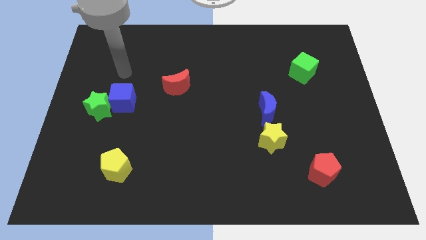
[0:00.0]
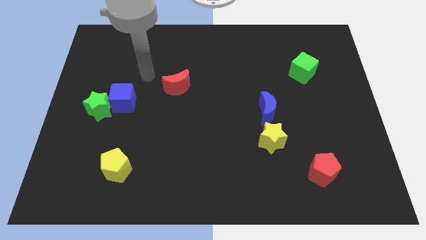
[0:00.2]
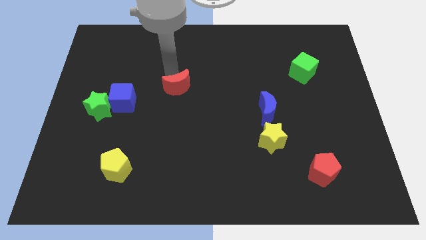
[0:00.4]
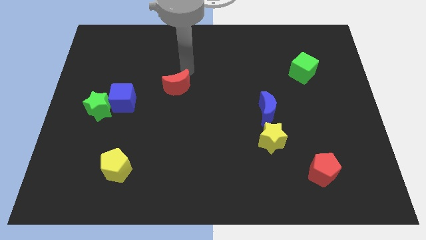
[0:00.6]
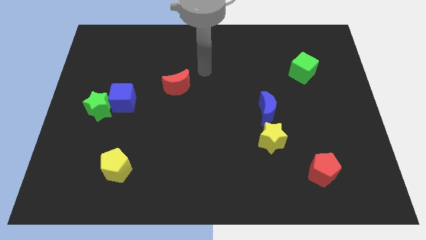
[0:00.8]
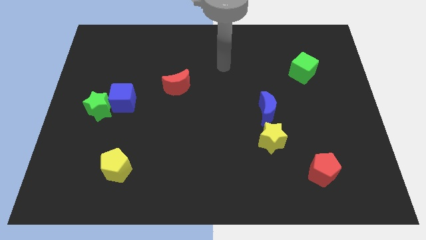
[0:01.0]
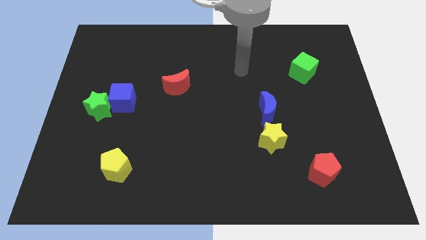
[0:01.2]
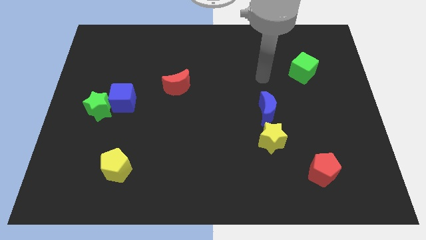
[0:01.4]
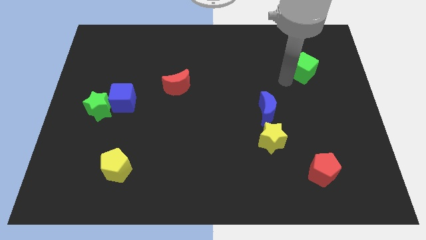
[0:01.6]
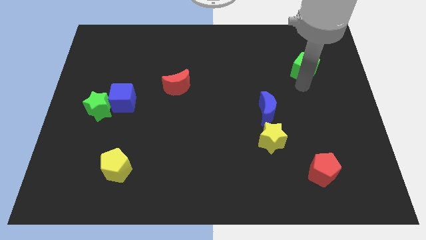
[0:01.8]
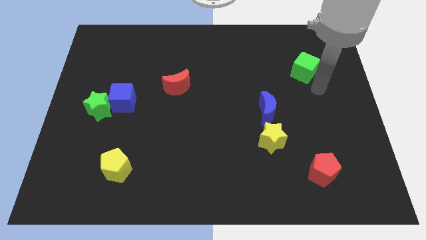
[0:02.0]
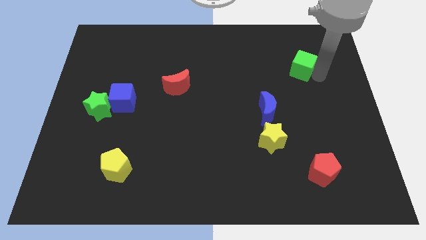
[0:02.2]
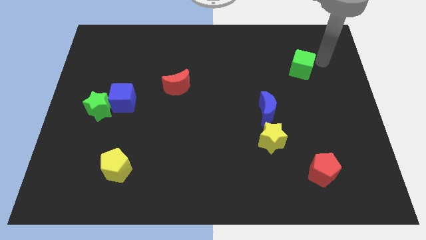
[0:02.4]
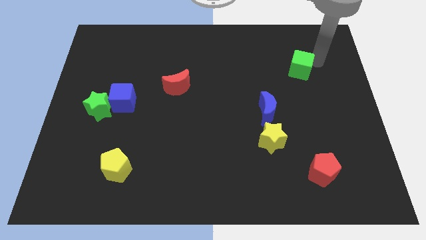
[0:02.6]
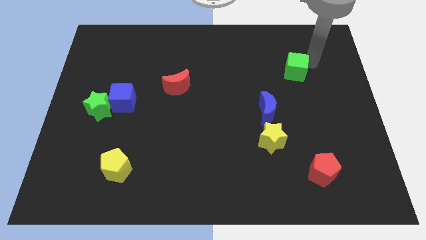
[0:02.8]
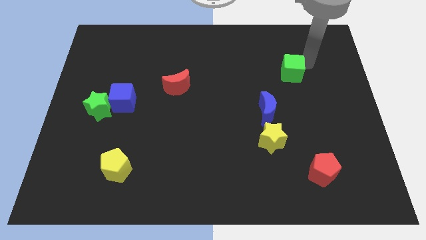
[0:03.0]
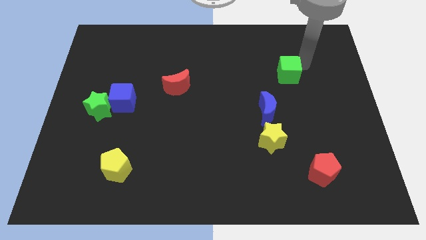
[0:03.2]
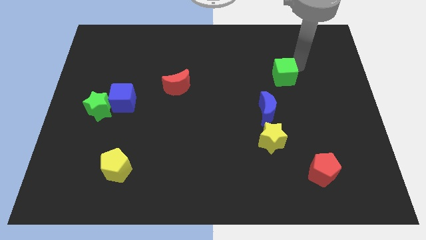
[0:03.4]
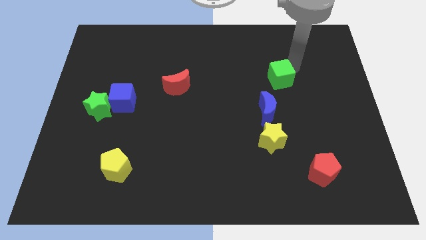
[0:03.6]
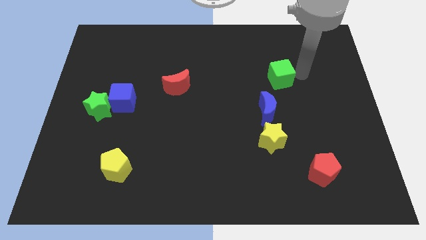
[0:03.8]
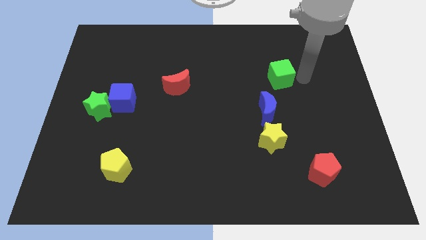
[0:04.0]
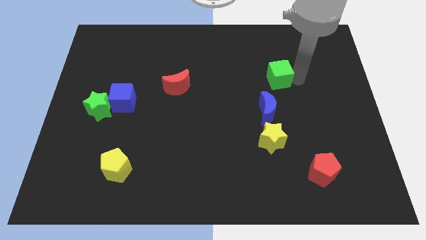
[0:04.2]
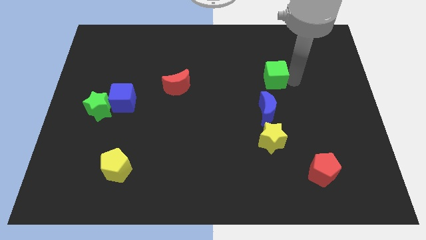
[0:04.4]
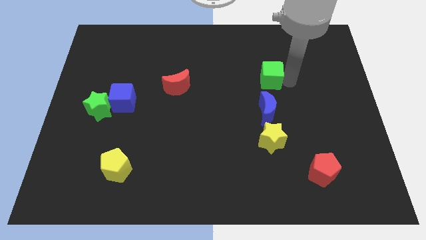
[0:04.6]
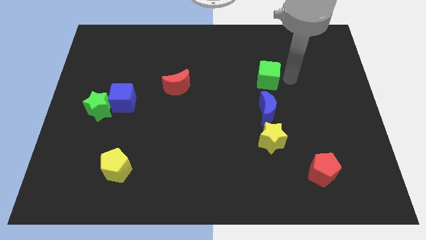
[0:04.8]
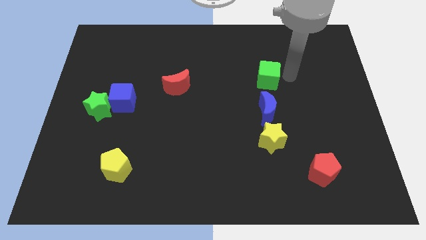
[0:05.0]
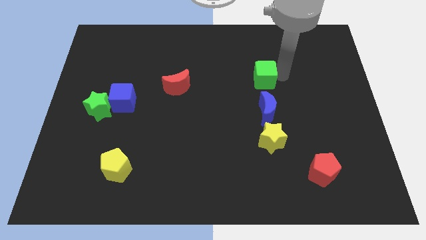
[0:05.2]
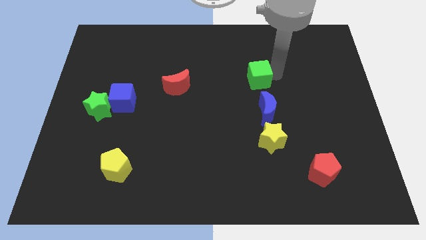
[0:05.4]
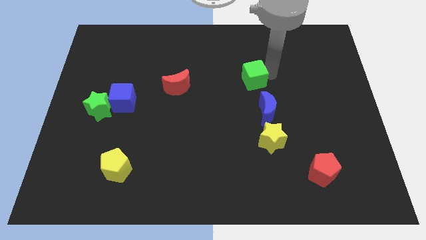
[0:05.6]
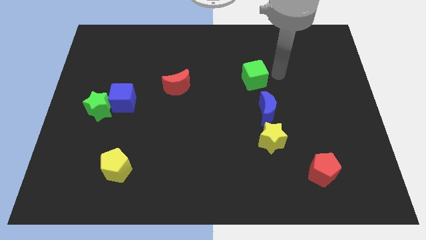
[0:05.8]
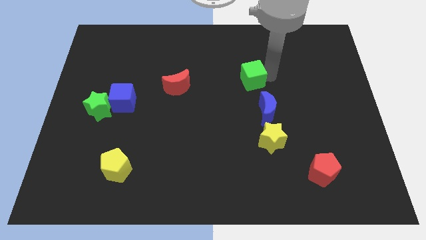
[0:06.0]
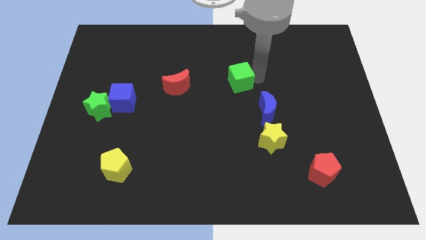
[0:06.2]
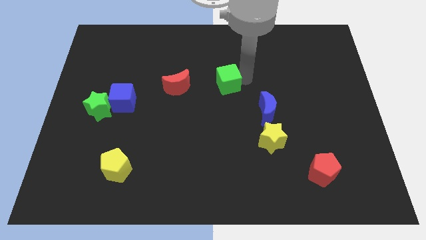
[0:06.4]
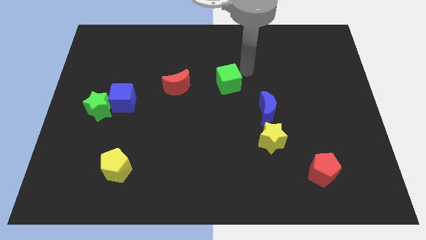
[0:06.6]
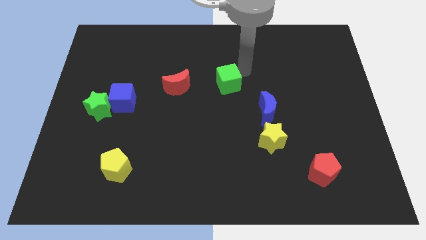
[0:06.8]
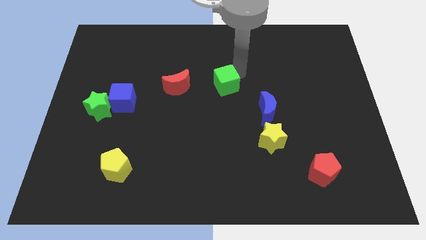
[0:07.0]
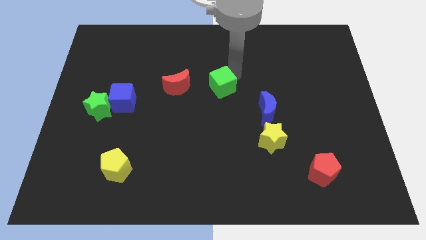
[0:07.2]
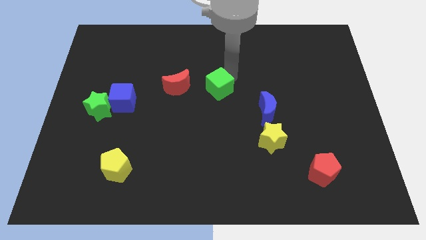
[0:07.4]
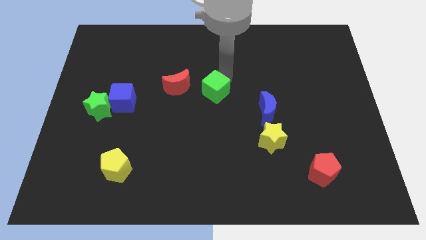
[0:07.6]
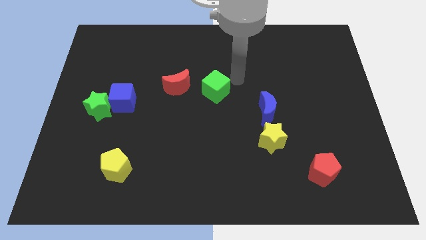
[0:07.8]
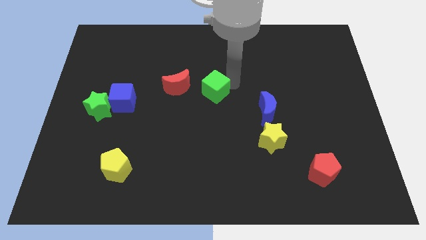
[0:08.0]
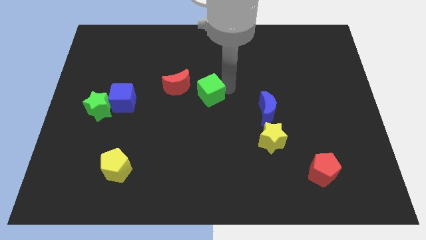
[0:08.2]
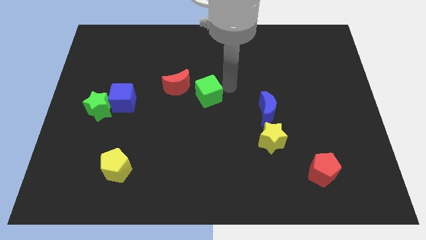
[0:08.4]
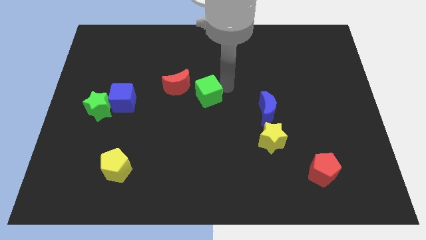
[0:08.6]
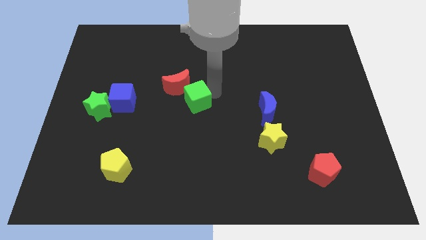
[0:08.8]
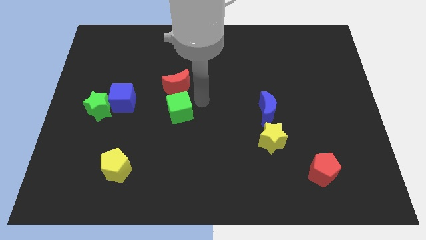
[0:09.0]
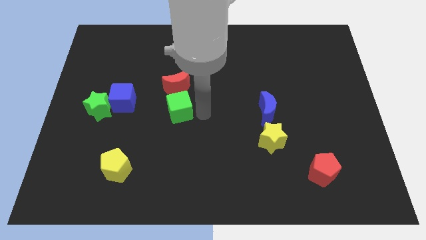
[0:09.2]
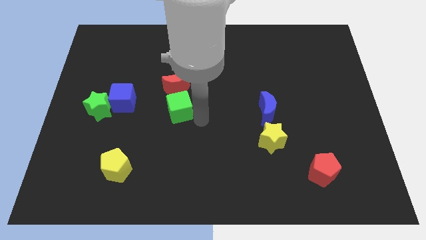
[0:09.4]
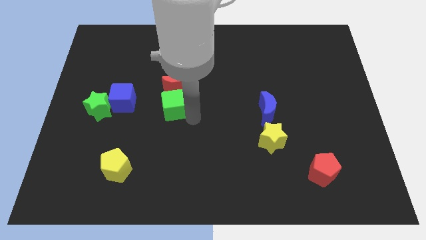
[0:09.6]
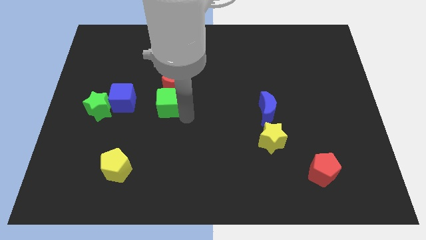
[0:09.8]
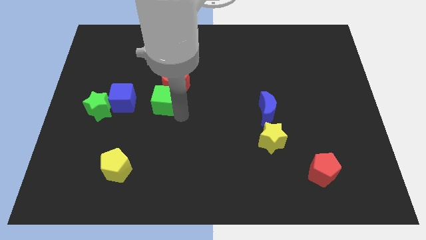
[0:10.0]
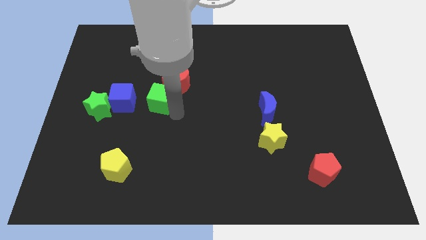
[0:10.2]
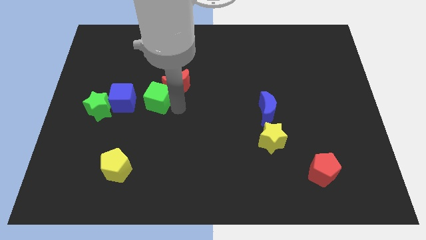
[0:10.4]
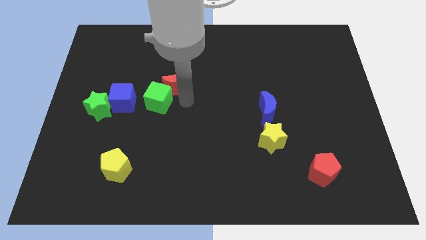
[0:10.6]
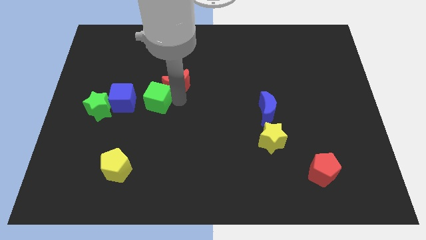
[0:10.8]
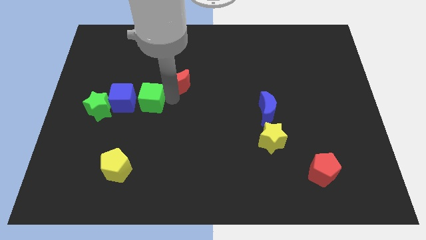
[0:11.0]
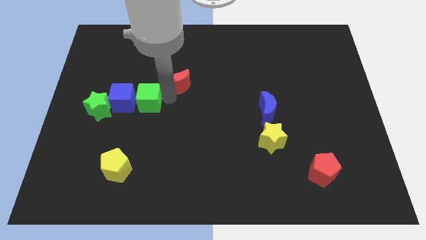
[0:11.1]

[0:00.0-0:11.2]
put the green cube close to the blue cube

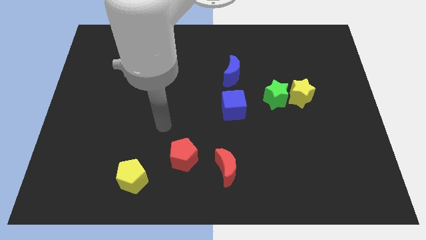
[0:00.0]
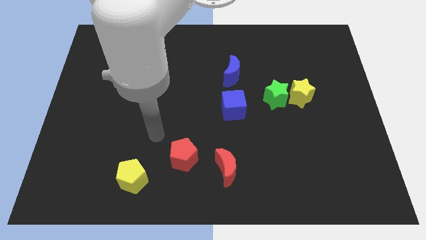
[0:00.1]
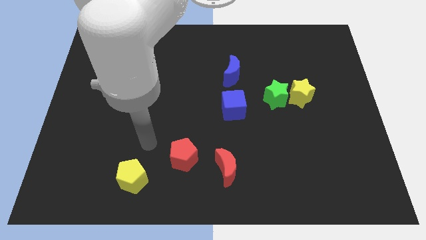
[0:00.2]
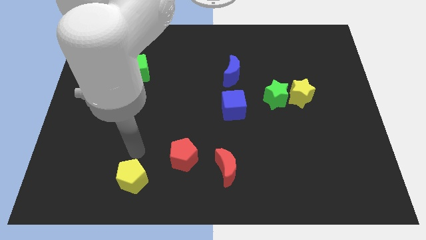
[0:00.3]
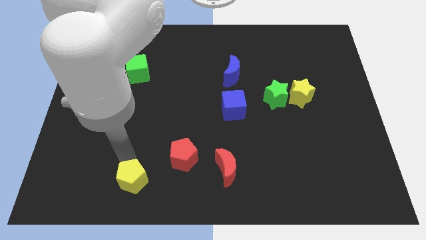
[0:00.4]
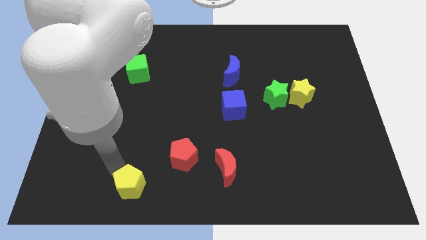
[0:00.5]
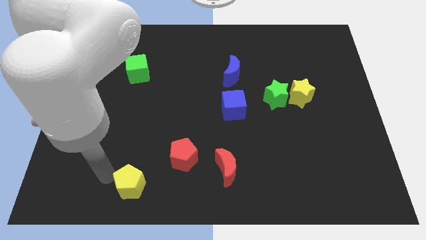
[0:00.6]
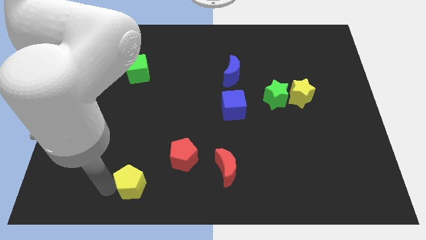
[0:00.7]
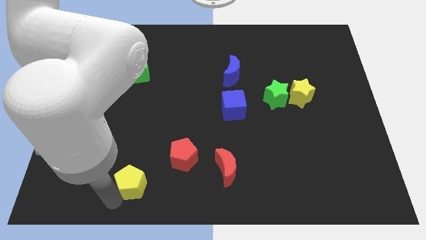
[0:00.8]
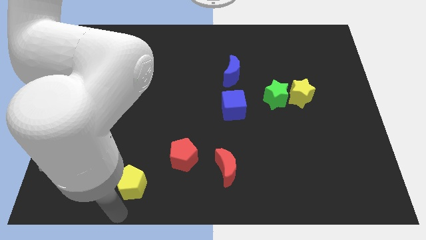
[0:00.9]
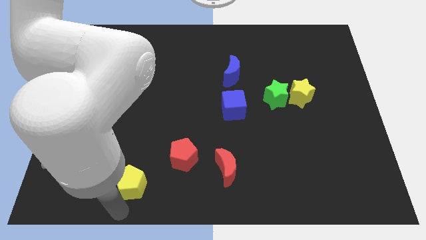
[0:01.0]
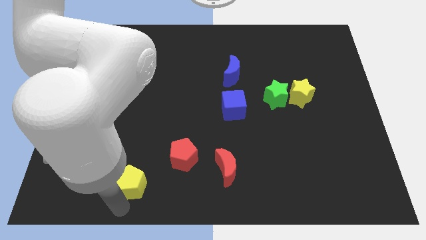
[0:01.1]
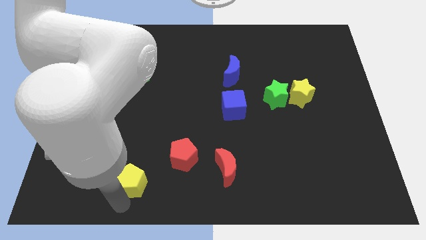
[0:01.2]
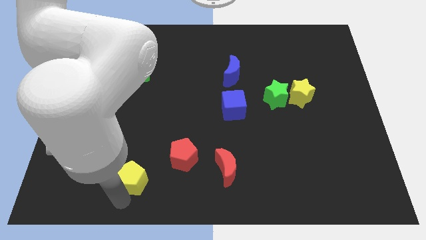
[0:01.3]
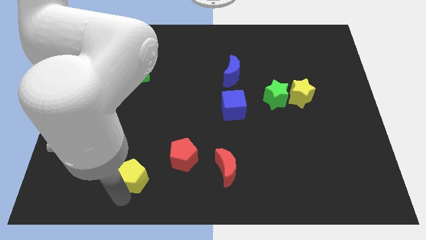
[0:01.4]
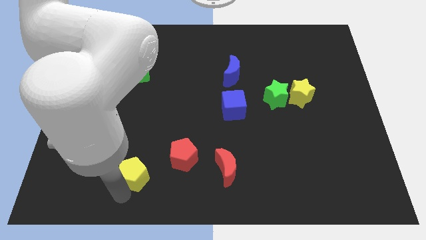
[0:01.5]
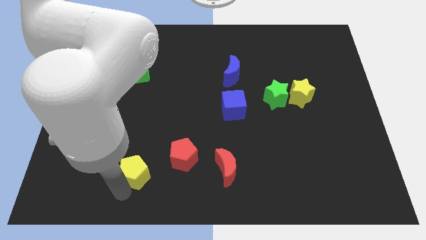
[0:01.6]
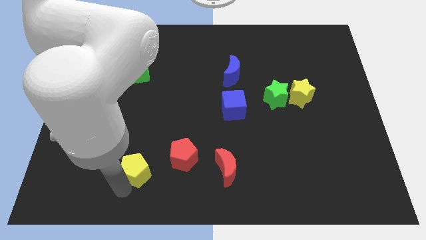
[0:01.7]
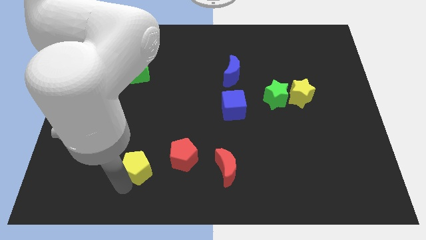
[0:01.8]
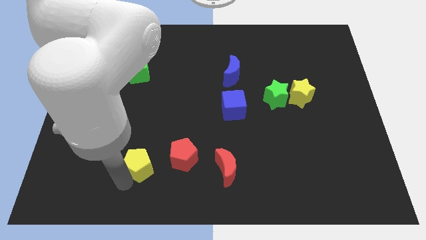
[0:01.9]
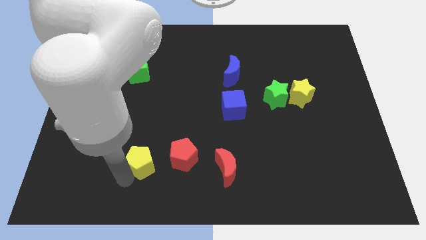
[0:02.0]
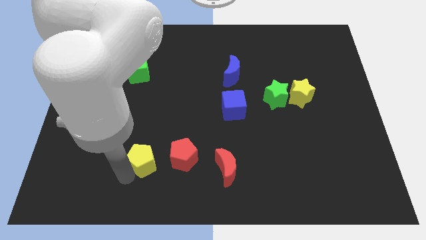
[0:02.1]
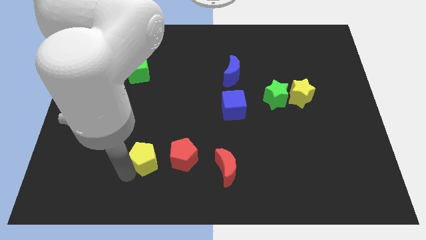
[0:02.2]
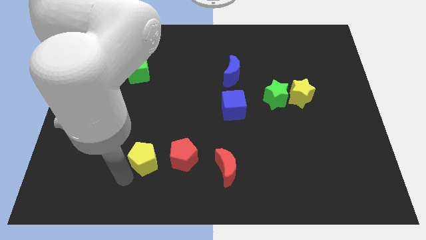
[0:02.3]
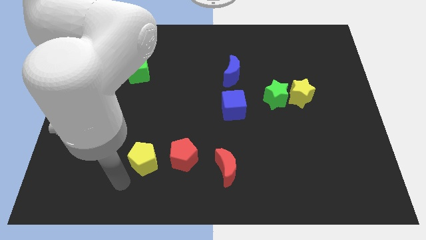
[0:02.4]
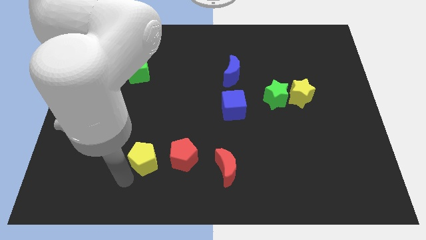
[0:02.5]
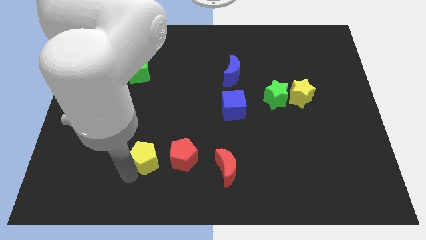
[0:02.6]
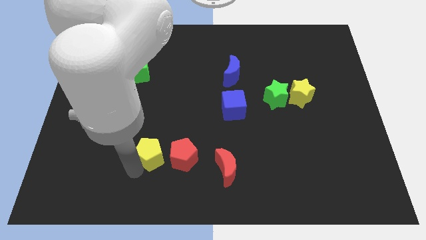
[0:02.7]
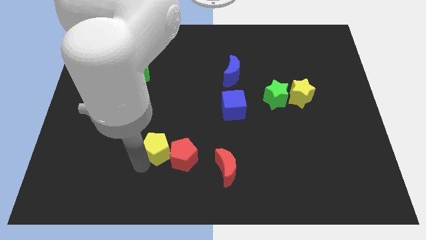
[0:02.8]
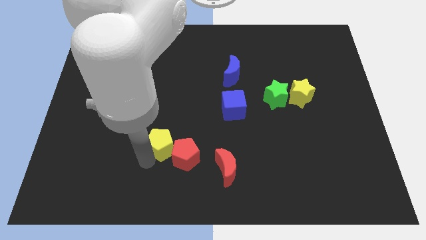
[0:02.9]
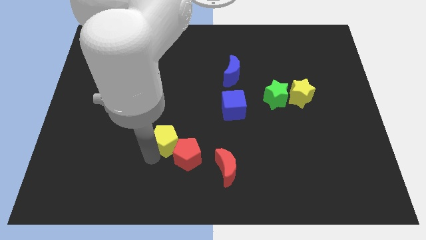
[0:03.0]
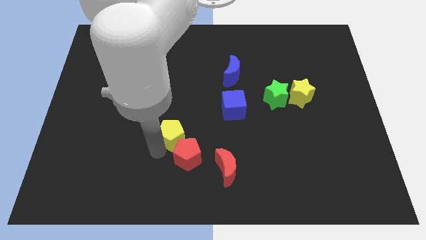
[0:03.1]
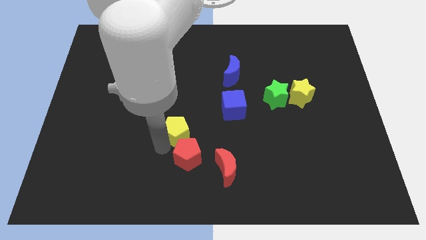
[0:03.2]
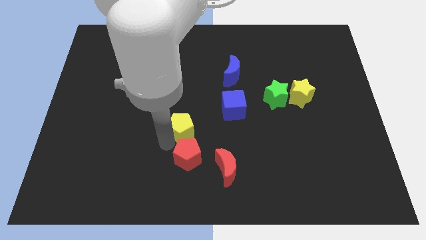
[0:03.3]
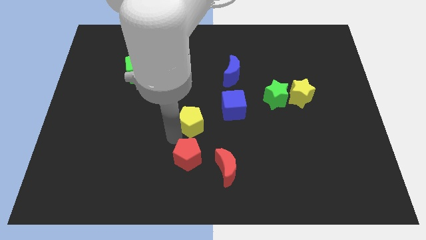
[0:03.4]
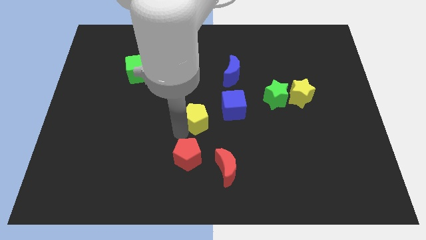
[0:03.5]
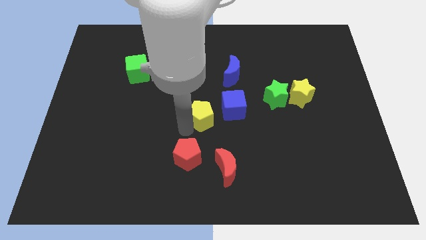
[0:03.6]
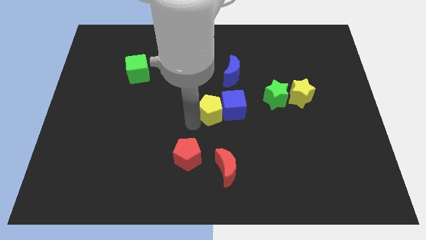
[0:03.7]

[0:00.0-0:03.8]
slide the yellow pentagon towards the blue cube
